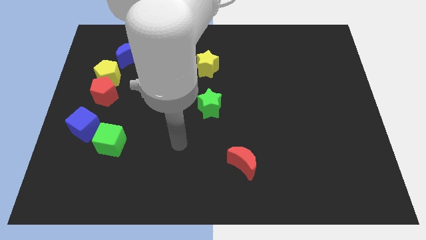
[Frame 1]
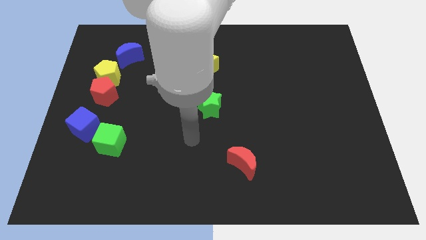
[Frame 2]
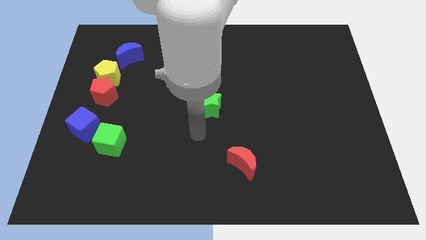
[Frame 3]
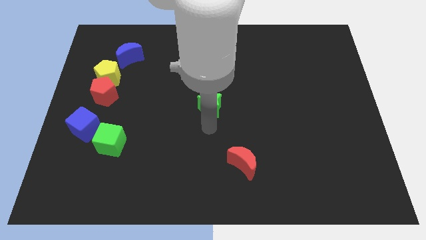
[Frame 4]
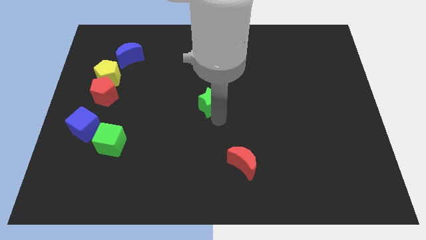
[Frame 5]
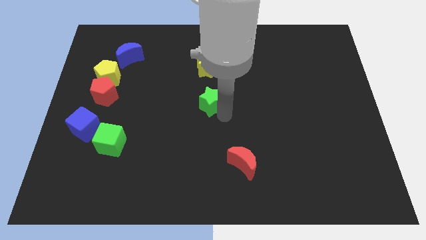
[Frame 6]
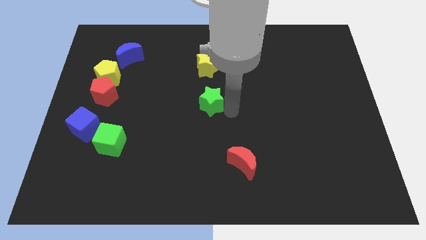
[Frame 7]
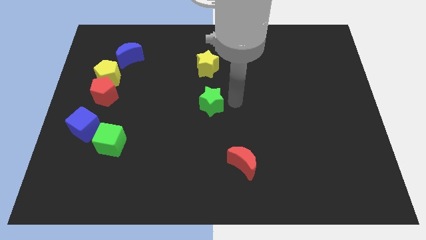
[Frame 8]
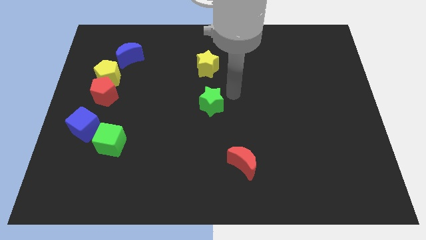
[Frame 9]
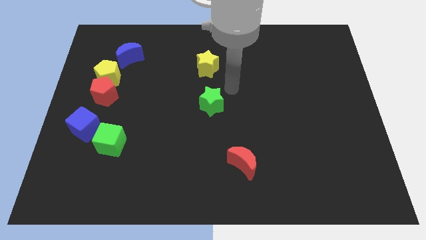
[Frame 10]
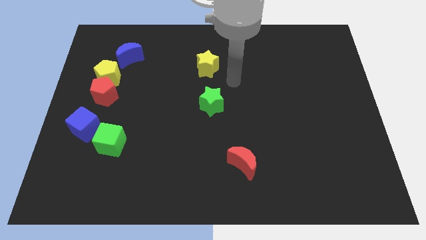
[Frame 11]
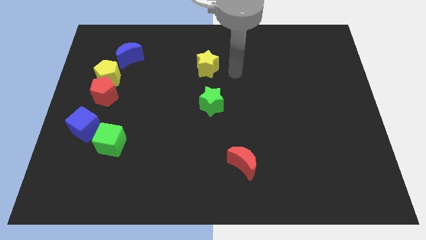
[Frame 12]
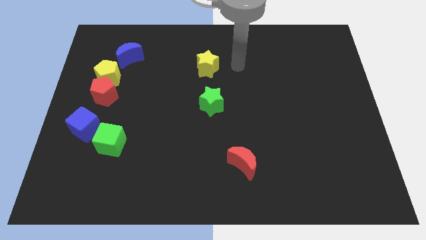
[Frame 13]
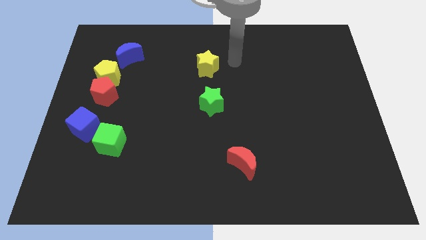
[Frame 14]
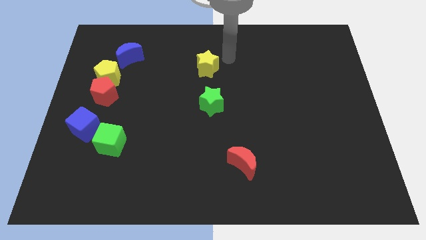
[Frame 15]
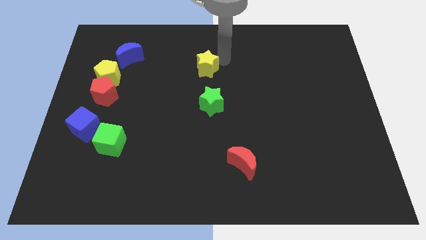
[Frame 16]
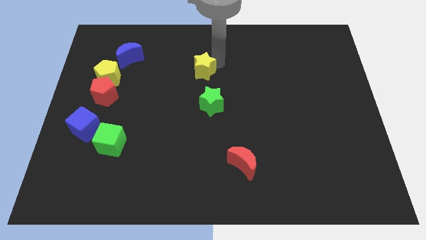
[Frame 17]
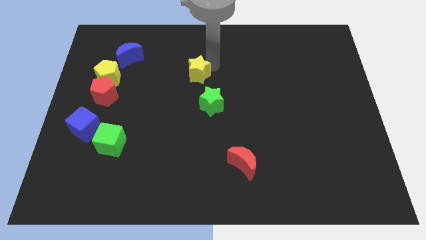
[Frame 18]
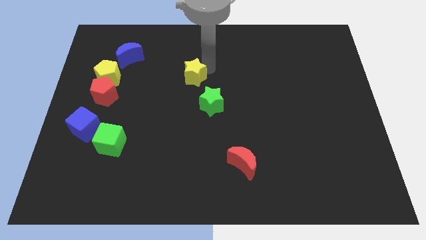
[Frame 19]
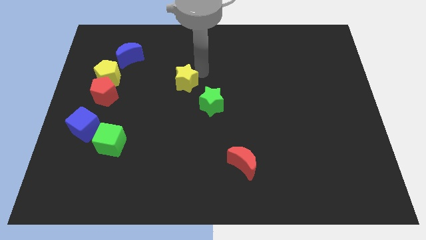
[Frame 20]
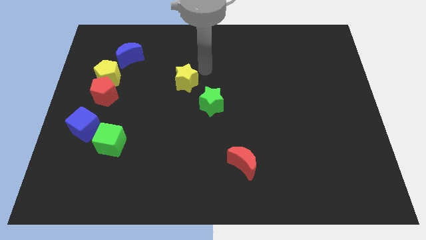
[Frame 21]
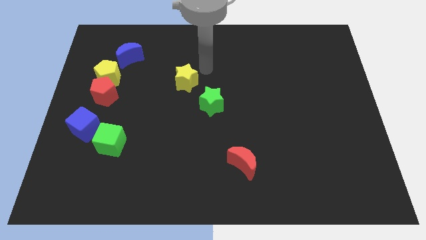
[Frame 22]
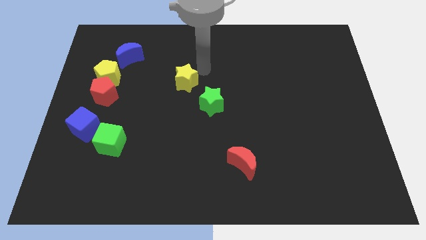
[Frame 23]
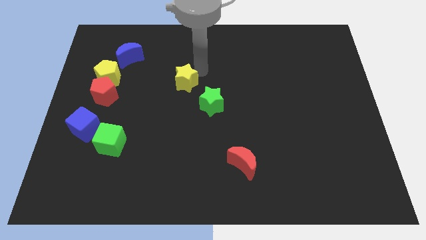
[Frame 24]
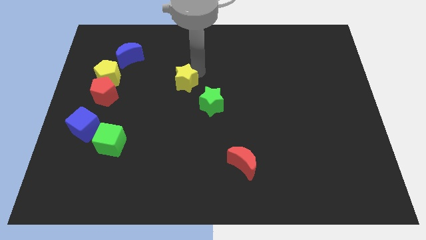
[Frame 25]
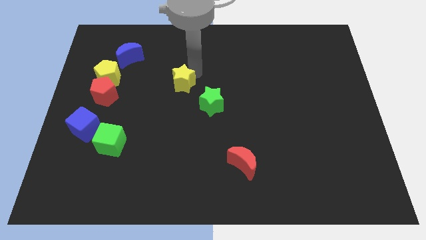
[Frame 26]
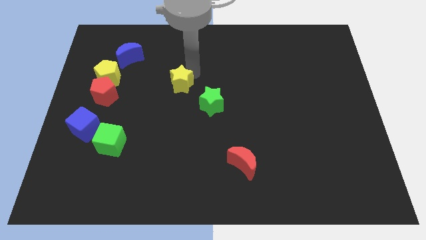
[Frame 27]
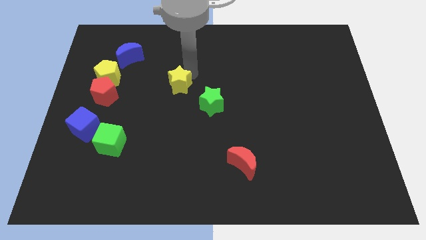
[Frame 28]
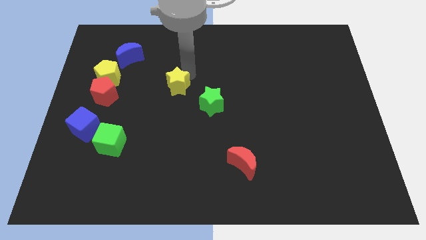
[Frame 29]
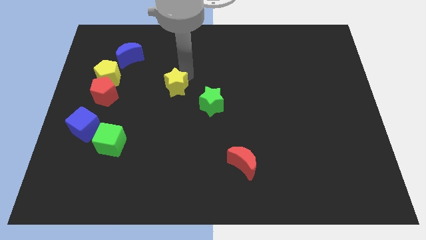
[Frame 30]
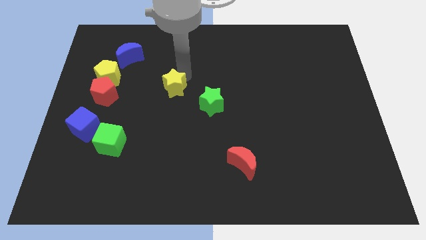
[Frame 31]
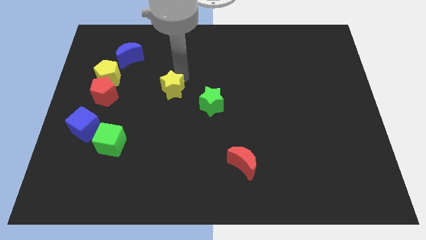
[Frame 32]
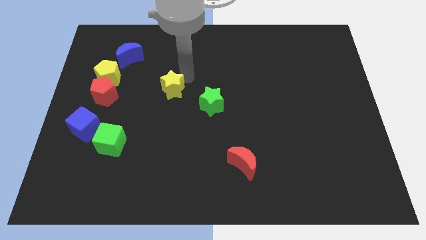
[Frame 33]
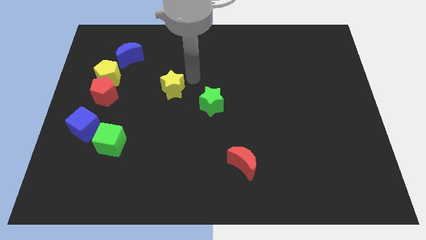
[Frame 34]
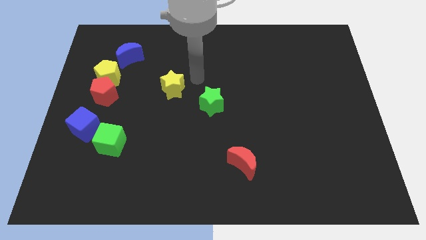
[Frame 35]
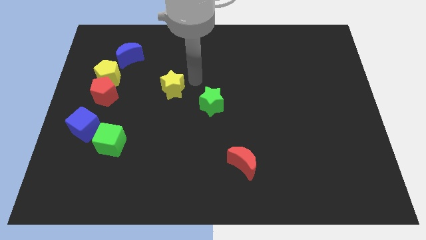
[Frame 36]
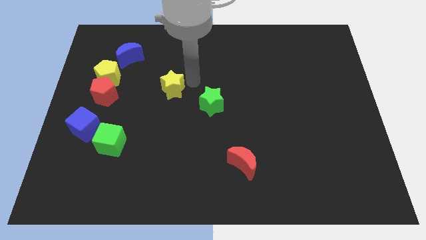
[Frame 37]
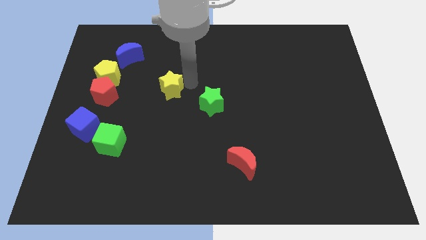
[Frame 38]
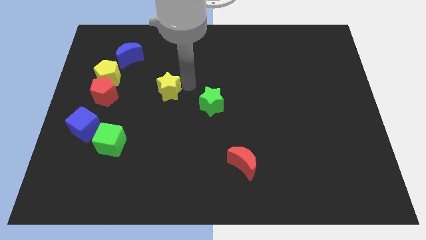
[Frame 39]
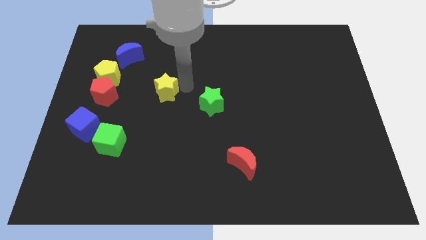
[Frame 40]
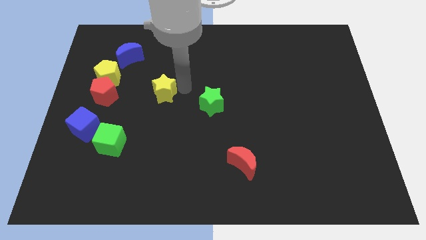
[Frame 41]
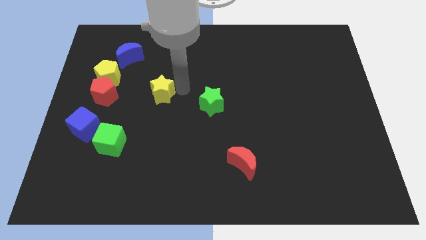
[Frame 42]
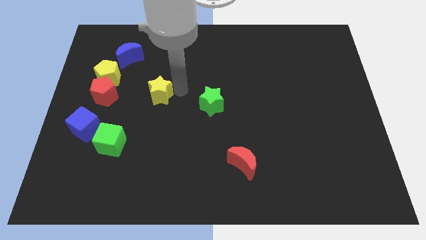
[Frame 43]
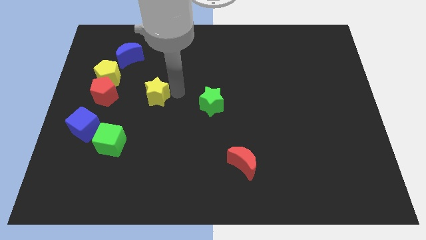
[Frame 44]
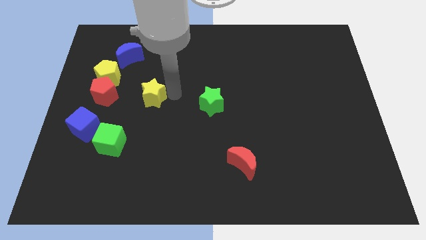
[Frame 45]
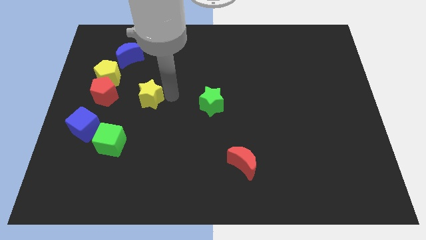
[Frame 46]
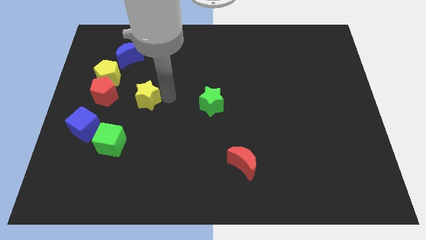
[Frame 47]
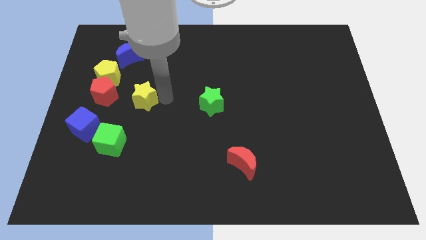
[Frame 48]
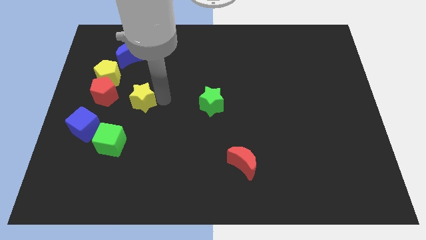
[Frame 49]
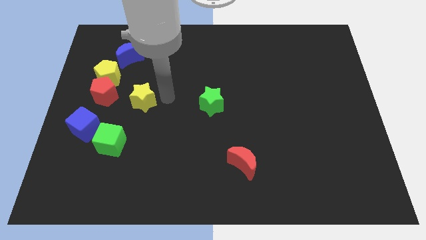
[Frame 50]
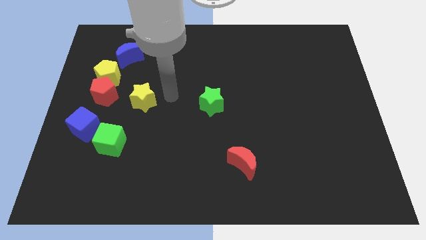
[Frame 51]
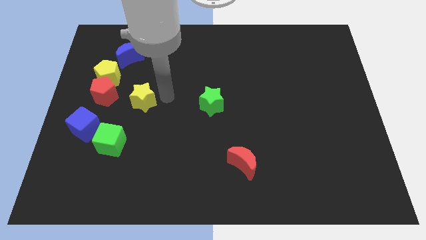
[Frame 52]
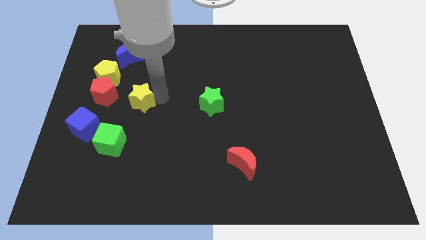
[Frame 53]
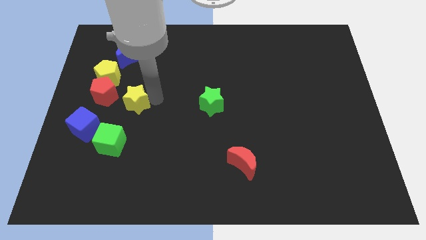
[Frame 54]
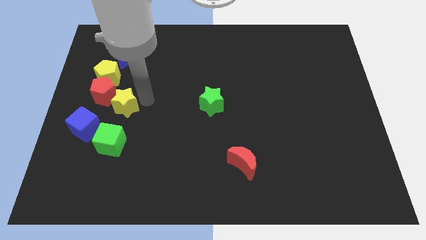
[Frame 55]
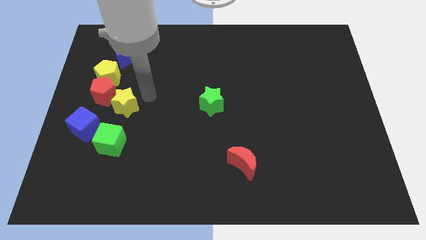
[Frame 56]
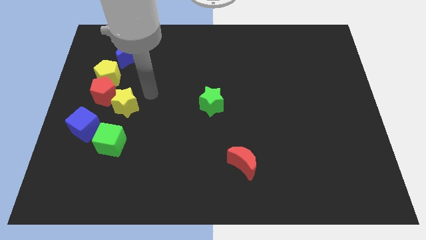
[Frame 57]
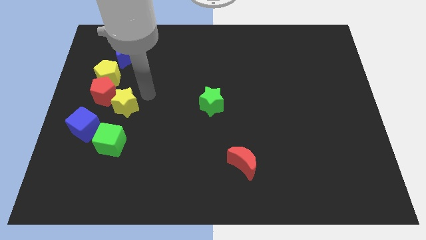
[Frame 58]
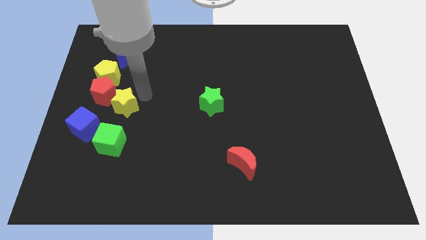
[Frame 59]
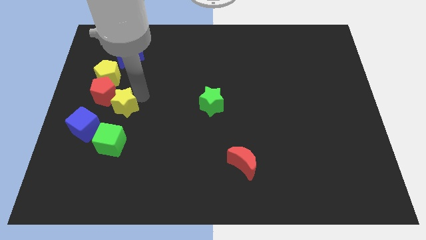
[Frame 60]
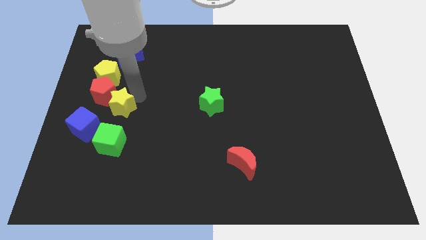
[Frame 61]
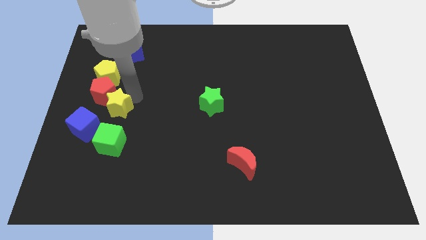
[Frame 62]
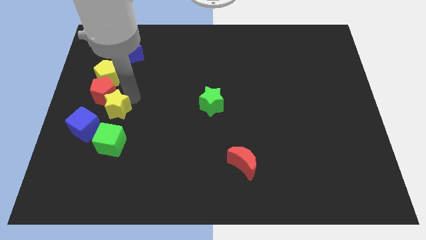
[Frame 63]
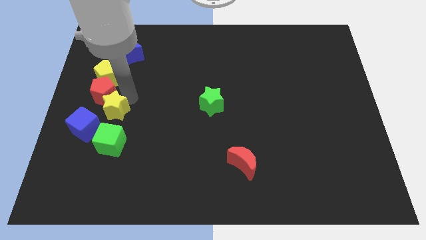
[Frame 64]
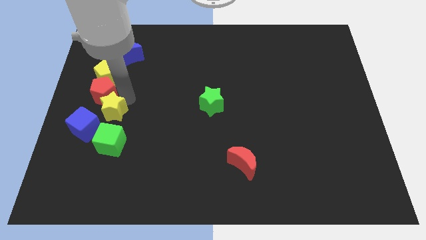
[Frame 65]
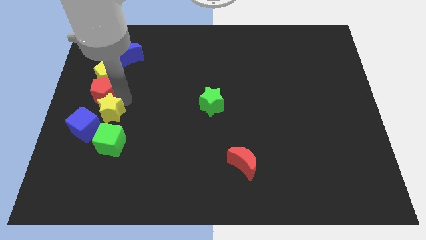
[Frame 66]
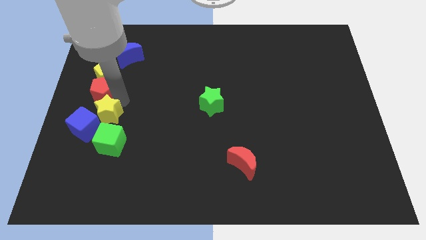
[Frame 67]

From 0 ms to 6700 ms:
push the yellow star towards the blue cube
